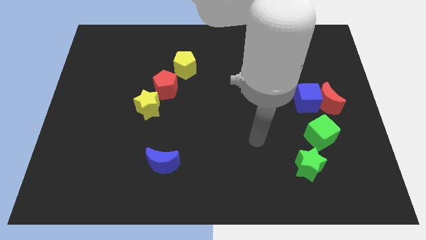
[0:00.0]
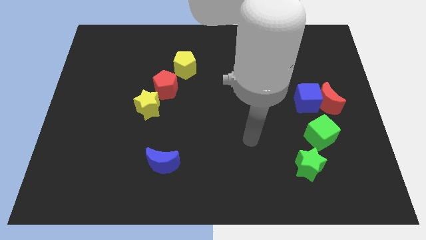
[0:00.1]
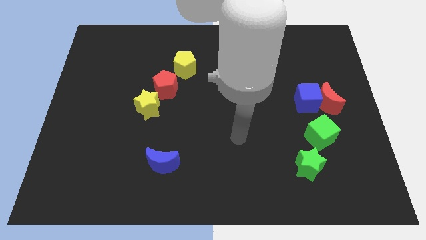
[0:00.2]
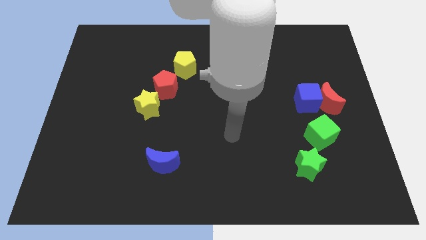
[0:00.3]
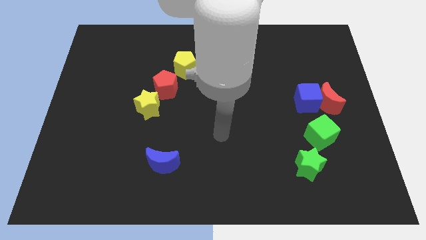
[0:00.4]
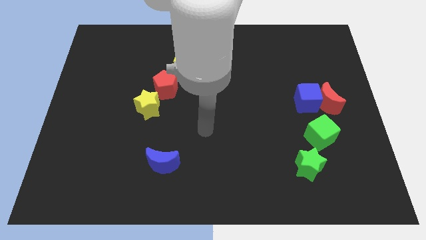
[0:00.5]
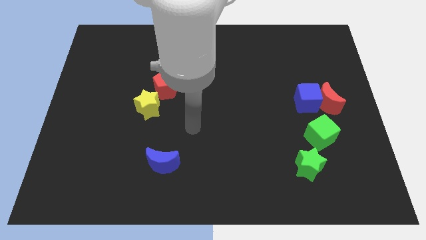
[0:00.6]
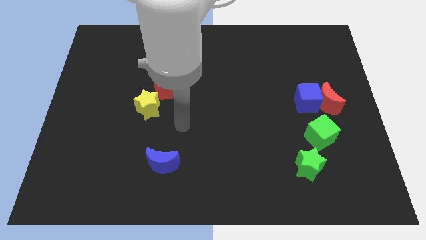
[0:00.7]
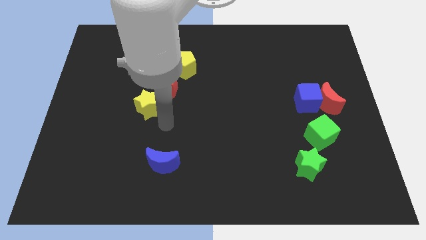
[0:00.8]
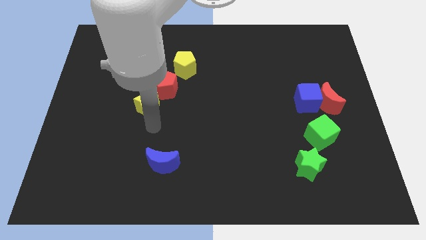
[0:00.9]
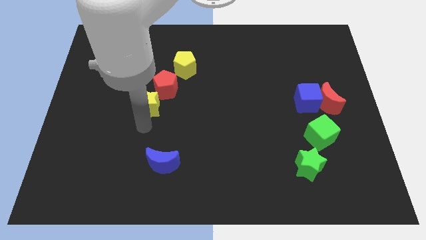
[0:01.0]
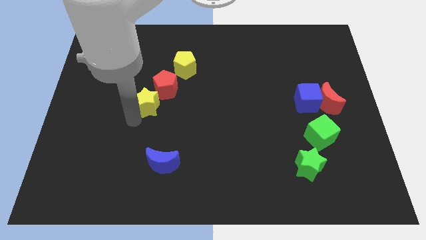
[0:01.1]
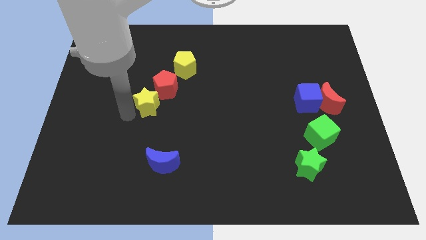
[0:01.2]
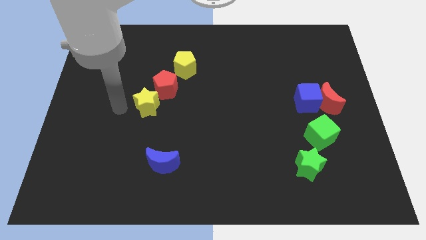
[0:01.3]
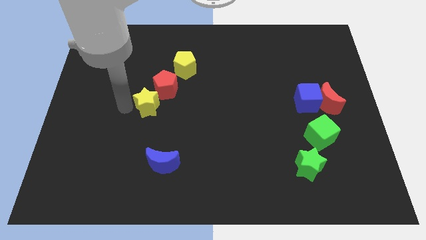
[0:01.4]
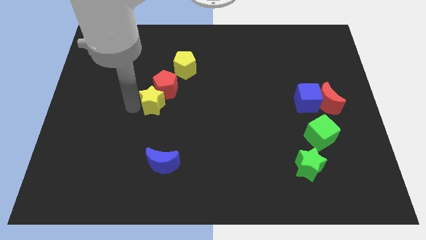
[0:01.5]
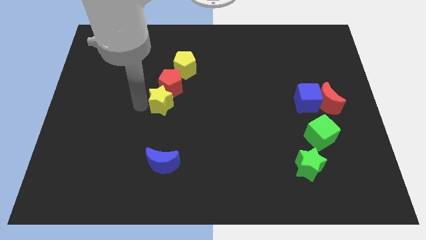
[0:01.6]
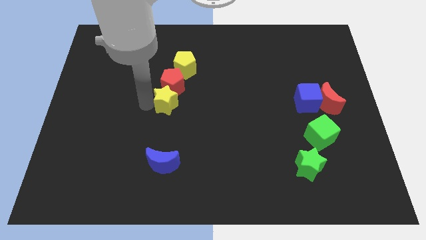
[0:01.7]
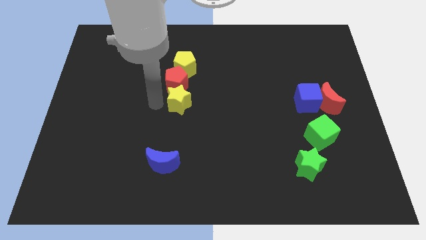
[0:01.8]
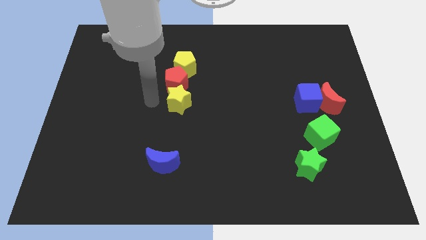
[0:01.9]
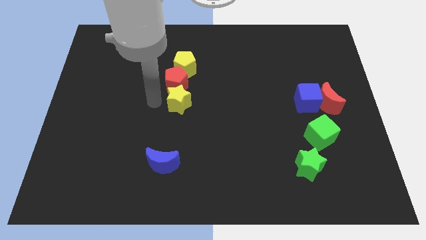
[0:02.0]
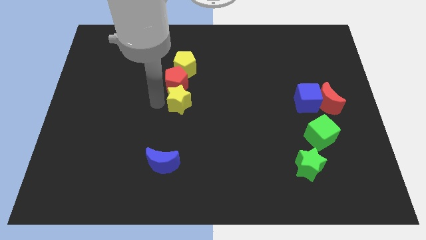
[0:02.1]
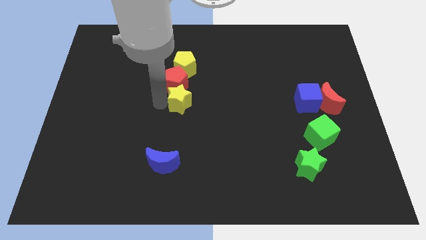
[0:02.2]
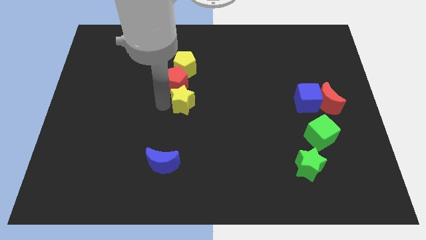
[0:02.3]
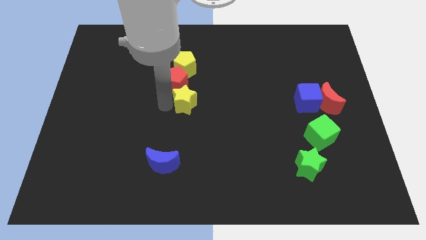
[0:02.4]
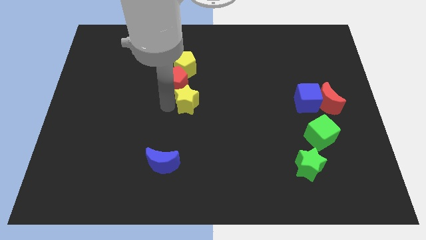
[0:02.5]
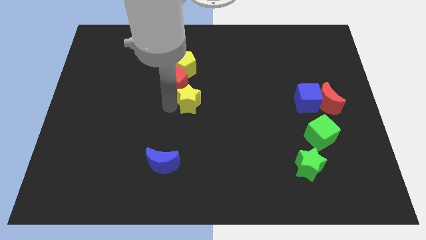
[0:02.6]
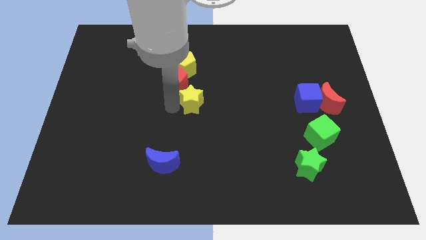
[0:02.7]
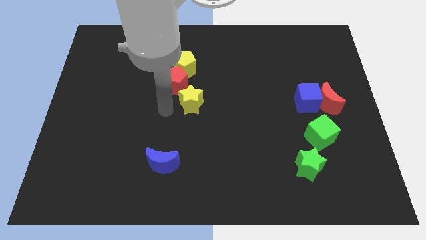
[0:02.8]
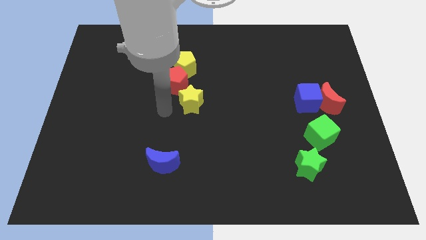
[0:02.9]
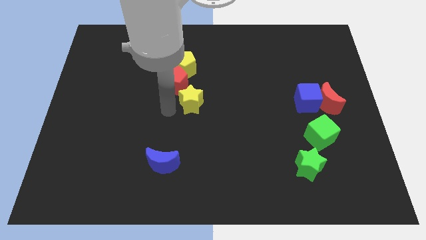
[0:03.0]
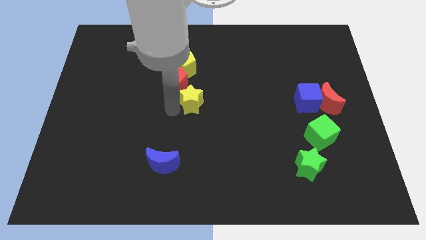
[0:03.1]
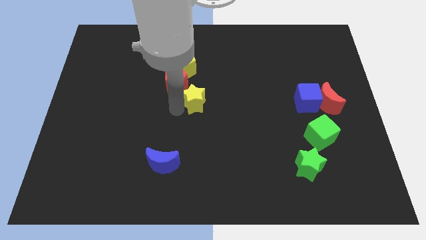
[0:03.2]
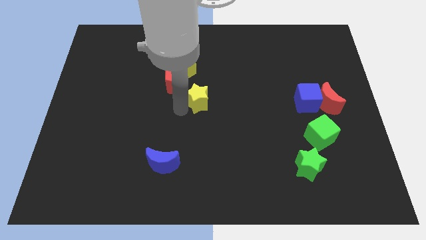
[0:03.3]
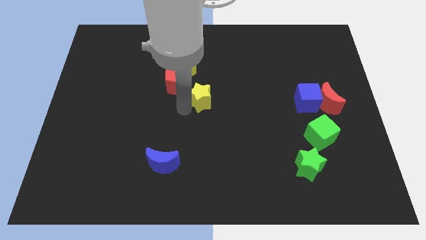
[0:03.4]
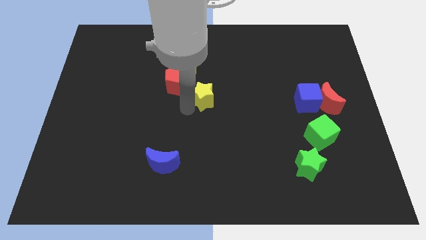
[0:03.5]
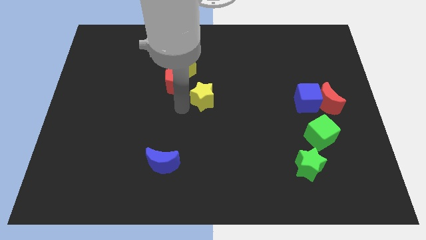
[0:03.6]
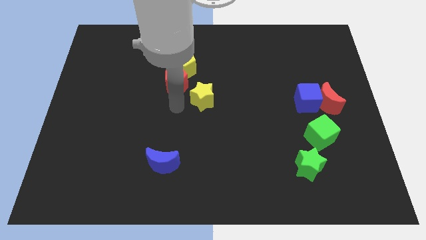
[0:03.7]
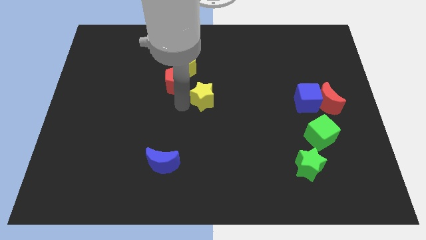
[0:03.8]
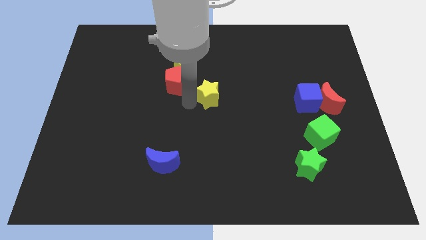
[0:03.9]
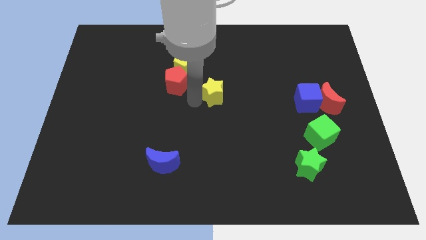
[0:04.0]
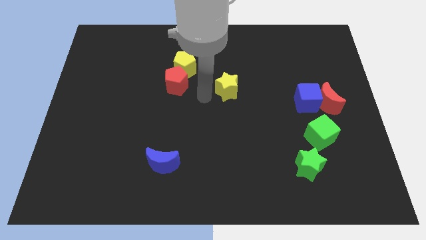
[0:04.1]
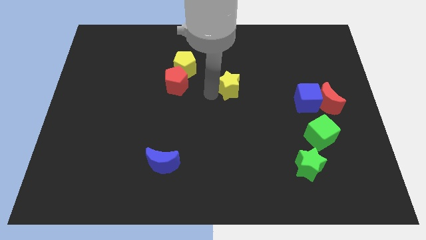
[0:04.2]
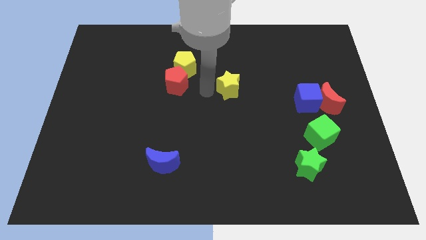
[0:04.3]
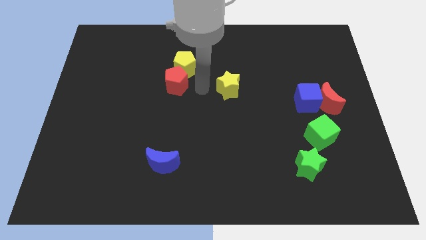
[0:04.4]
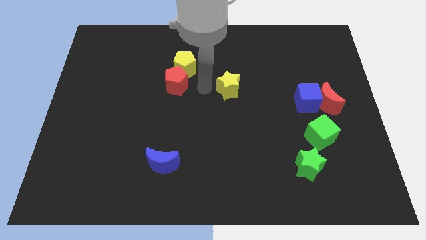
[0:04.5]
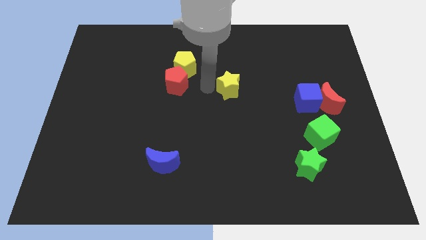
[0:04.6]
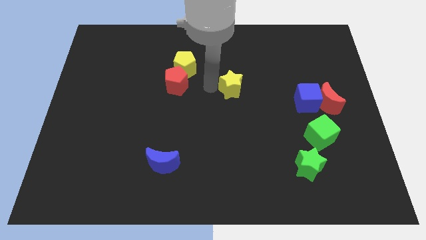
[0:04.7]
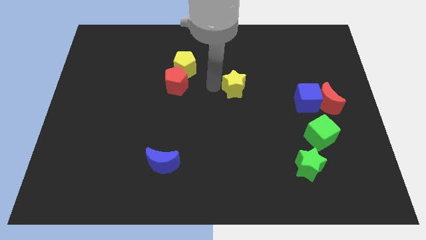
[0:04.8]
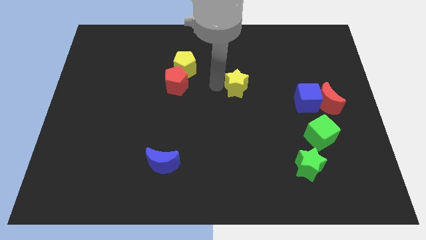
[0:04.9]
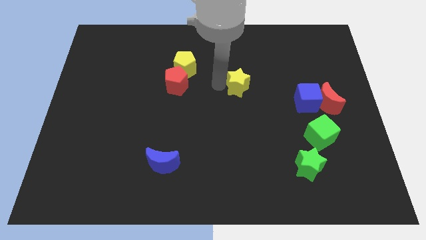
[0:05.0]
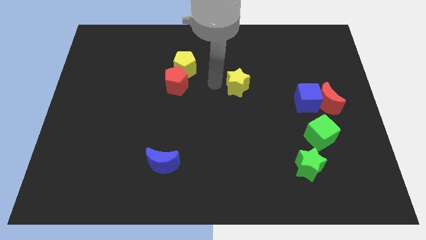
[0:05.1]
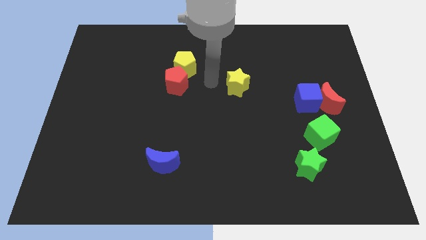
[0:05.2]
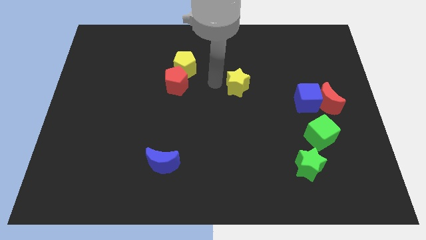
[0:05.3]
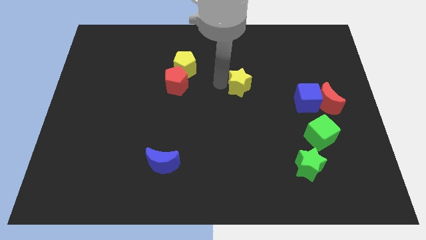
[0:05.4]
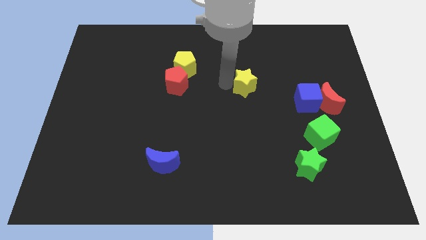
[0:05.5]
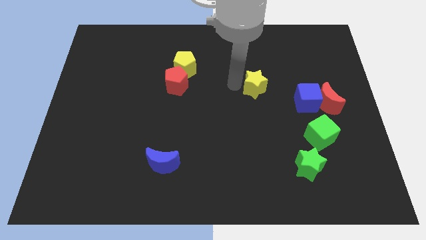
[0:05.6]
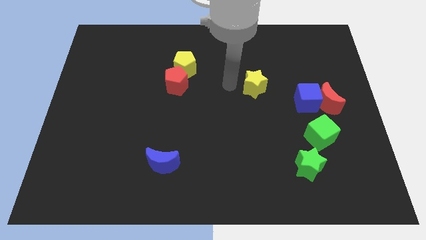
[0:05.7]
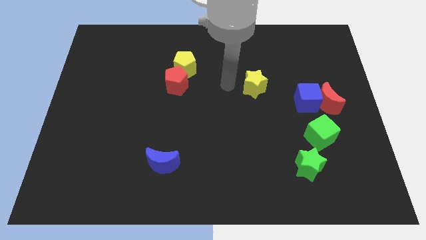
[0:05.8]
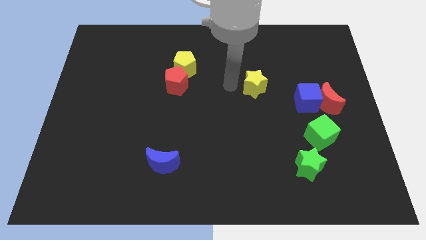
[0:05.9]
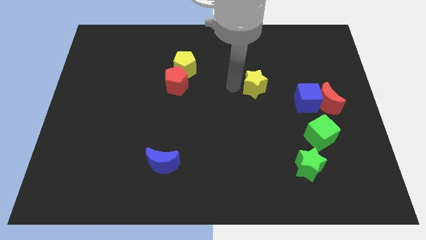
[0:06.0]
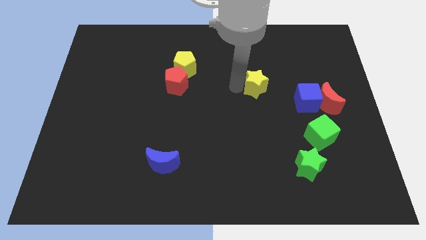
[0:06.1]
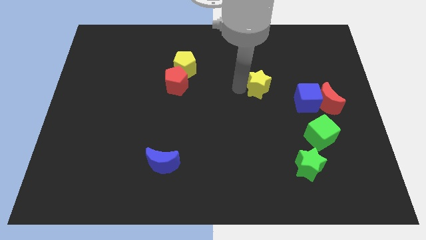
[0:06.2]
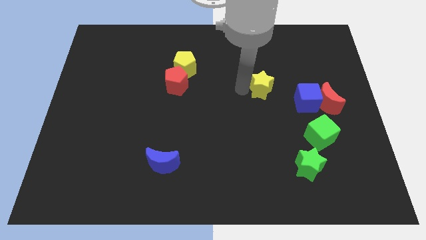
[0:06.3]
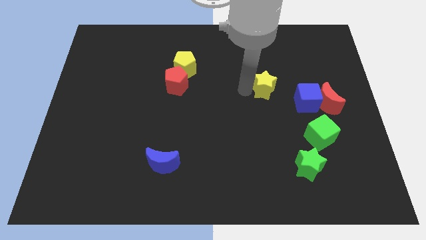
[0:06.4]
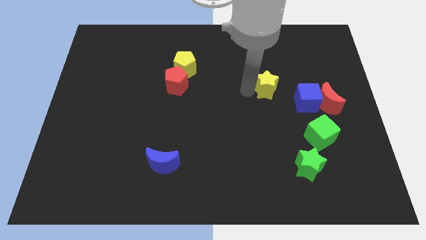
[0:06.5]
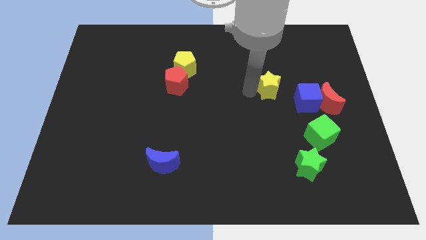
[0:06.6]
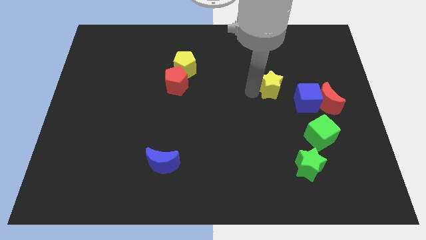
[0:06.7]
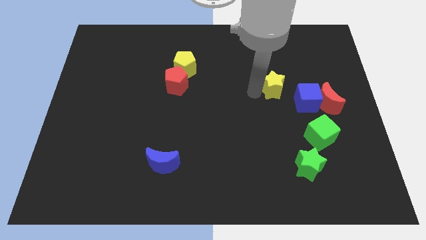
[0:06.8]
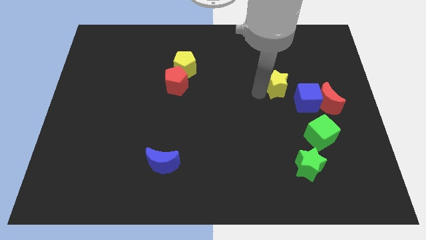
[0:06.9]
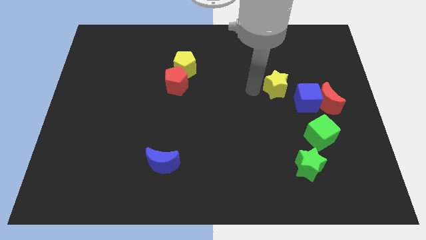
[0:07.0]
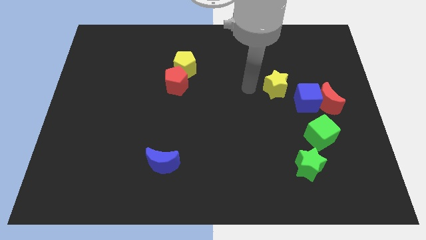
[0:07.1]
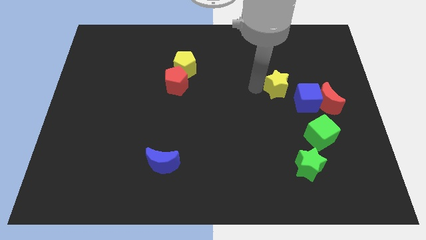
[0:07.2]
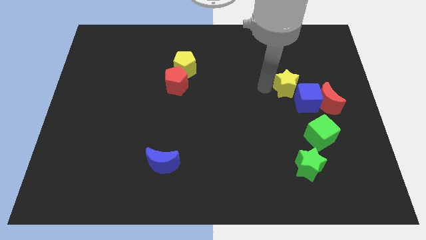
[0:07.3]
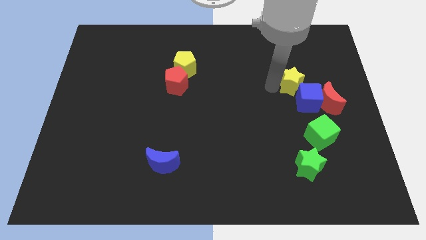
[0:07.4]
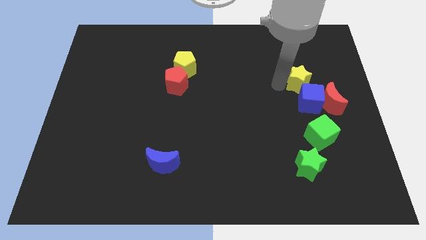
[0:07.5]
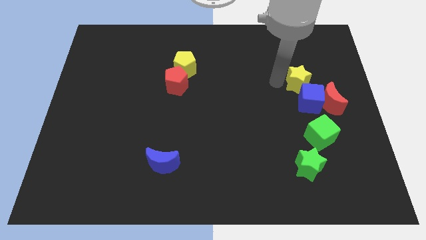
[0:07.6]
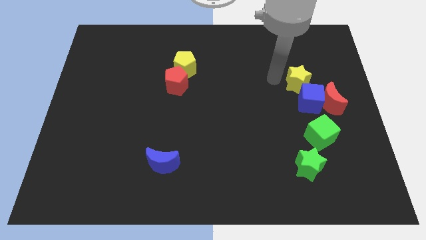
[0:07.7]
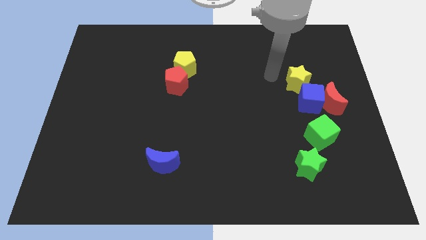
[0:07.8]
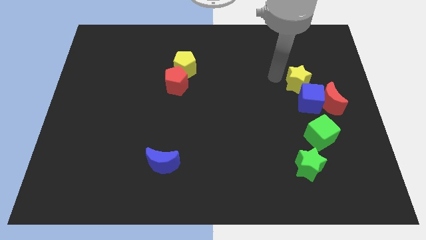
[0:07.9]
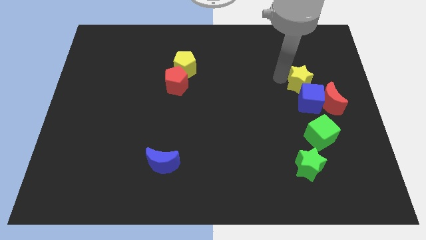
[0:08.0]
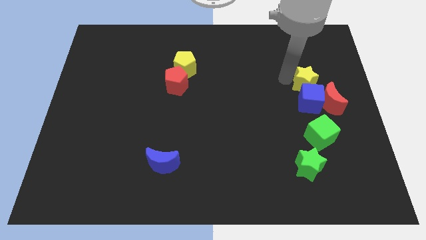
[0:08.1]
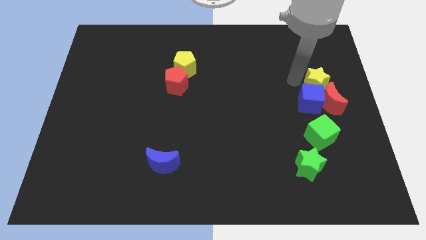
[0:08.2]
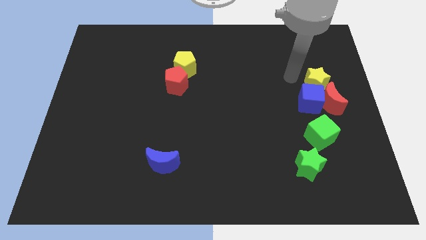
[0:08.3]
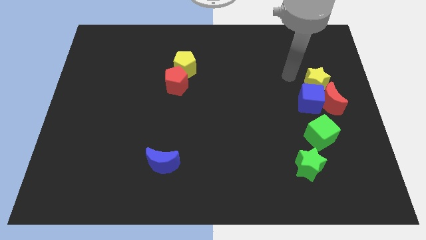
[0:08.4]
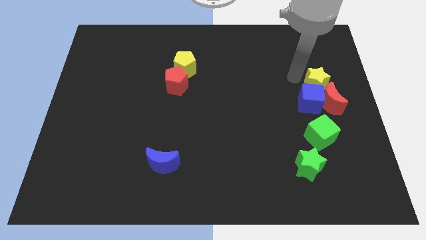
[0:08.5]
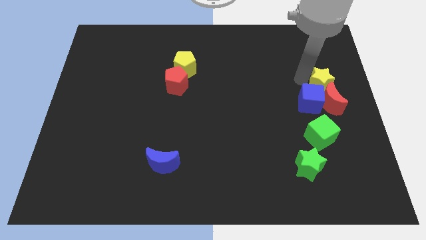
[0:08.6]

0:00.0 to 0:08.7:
push the yellow star to the right side of the board
